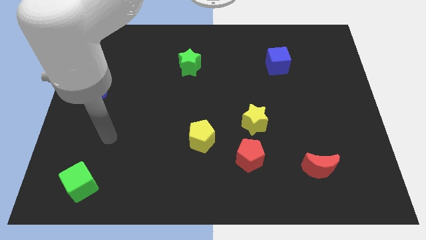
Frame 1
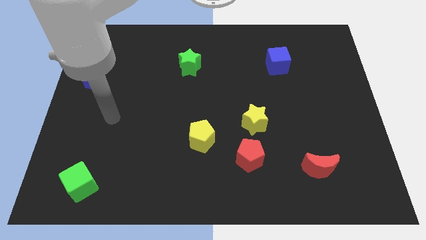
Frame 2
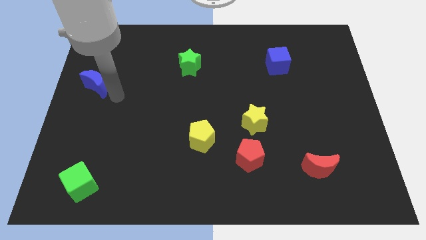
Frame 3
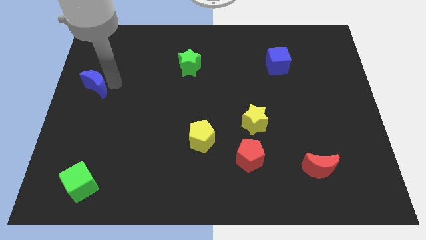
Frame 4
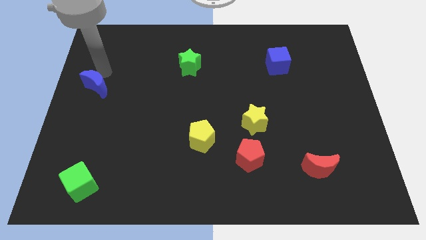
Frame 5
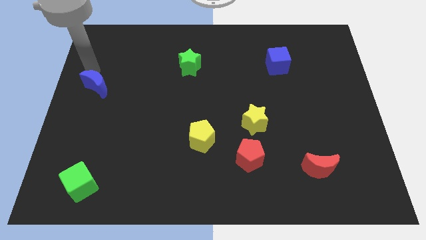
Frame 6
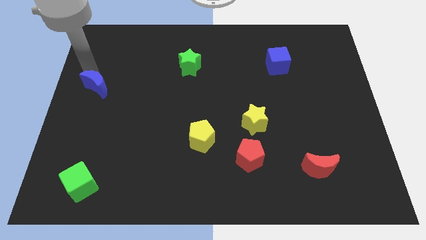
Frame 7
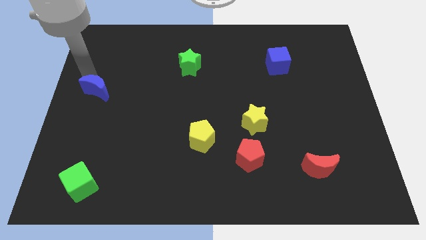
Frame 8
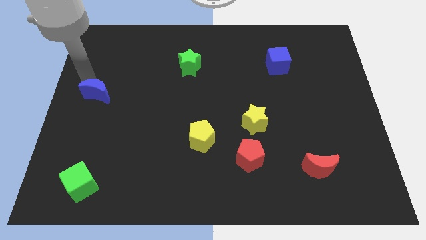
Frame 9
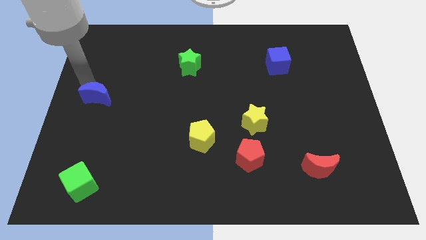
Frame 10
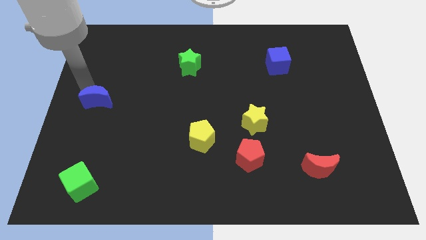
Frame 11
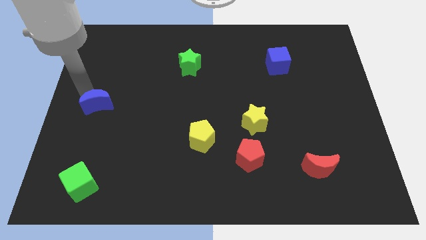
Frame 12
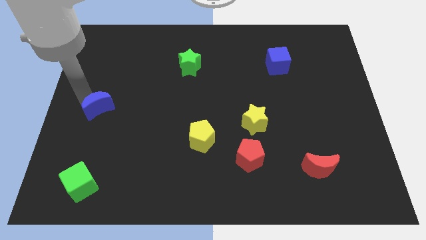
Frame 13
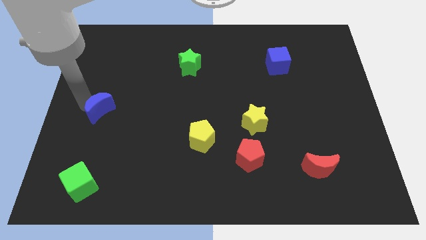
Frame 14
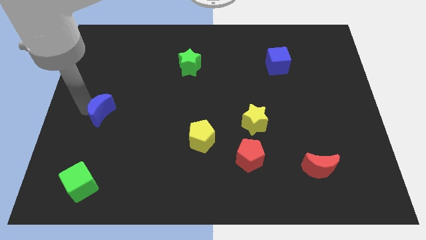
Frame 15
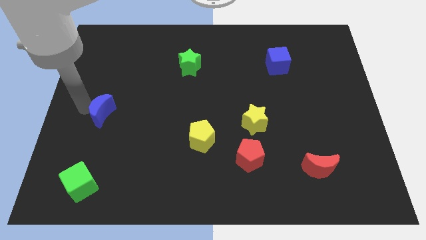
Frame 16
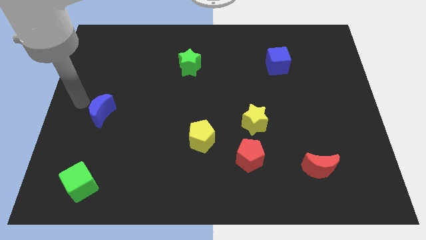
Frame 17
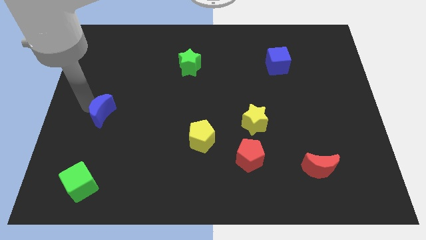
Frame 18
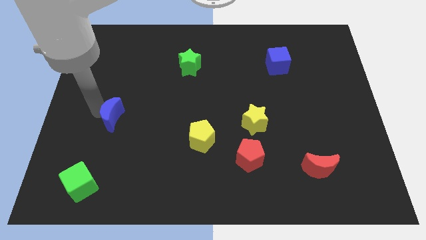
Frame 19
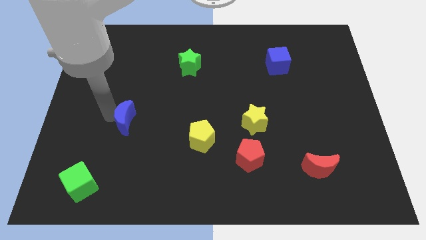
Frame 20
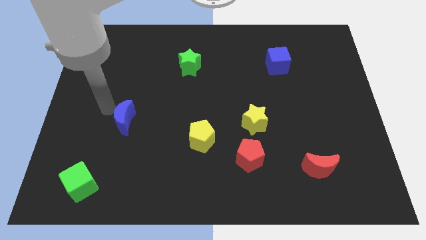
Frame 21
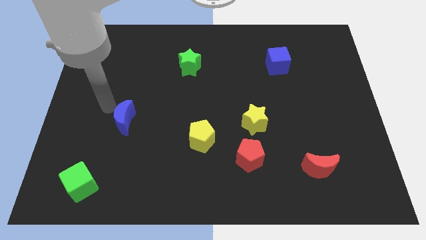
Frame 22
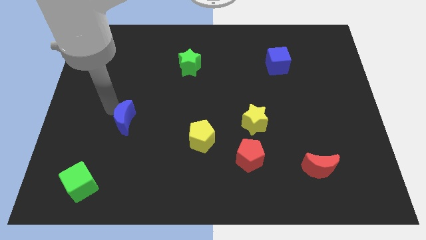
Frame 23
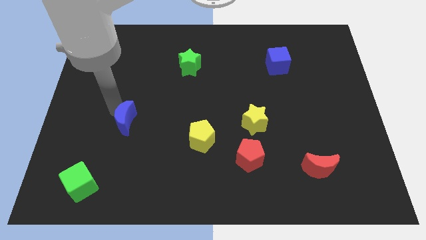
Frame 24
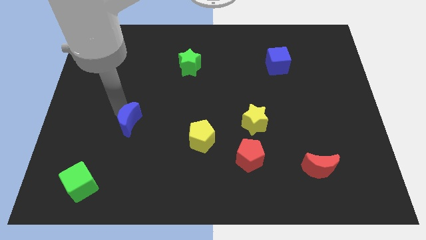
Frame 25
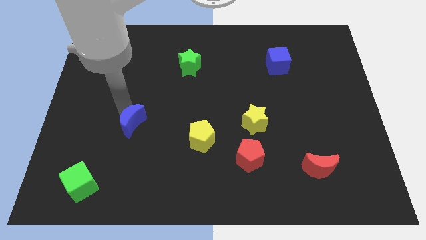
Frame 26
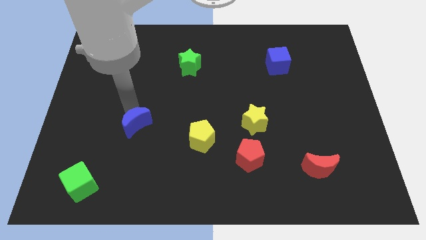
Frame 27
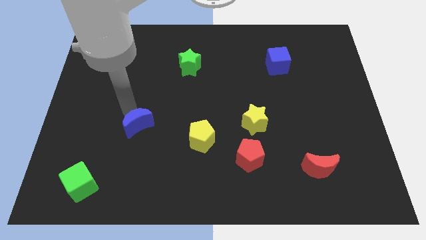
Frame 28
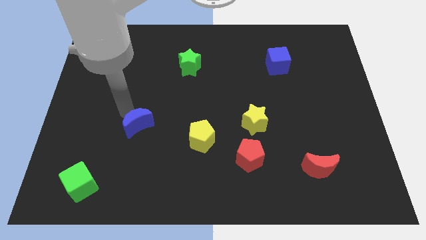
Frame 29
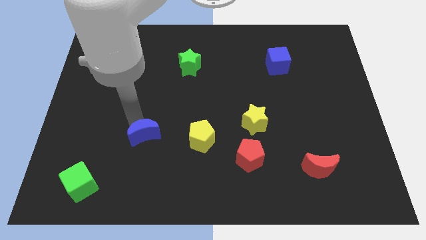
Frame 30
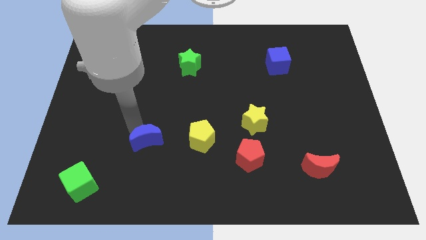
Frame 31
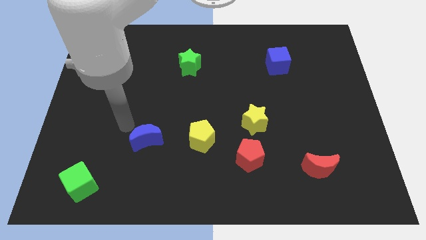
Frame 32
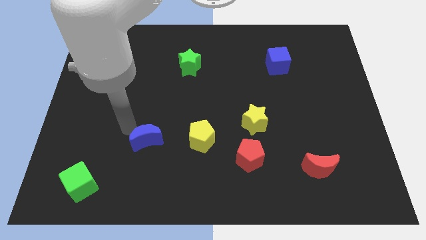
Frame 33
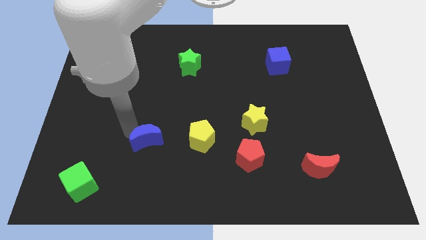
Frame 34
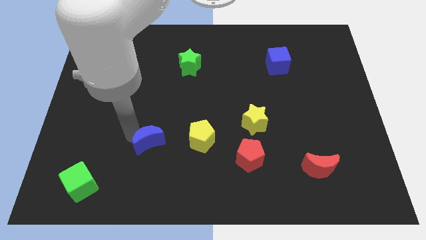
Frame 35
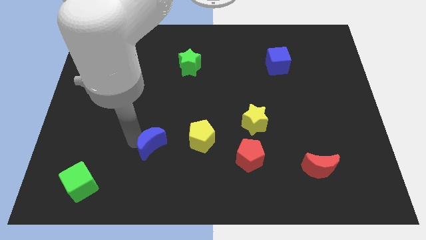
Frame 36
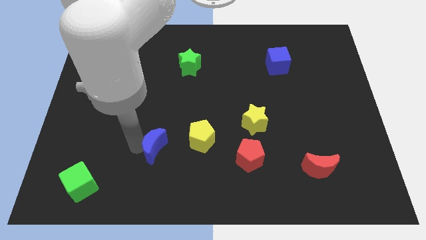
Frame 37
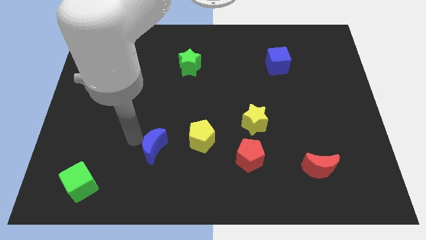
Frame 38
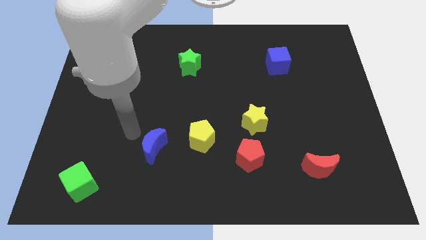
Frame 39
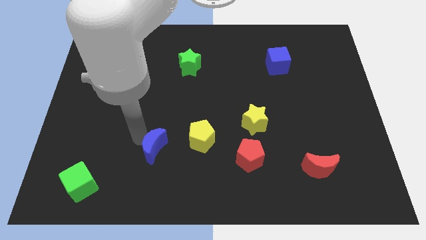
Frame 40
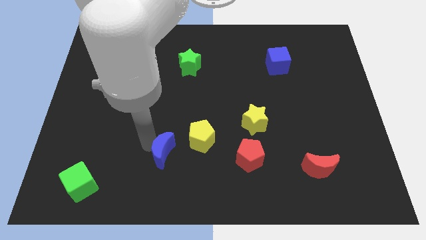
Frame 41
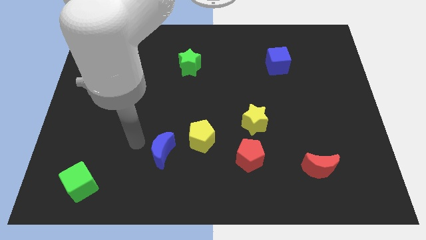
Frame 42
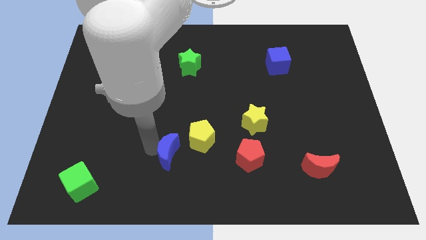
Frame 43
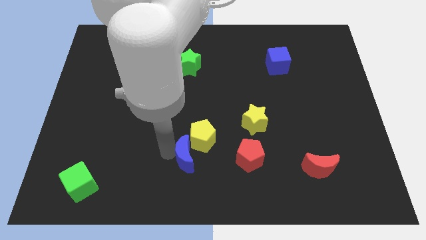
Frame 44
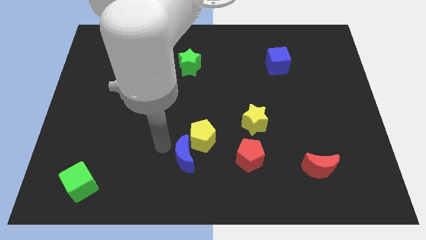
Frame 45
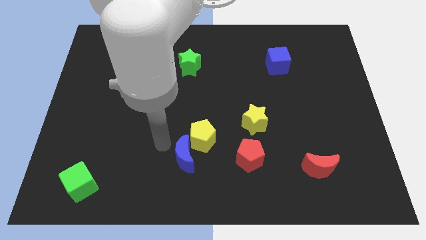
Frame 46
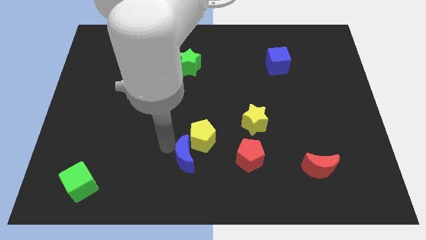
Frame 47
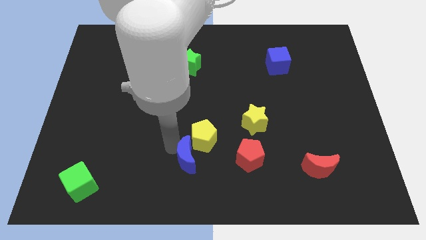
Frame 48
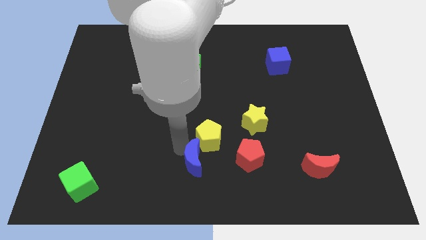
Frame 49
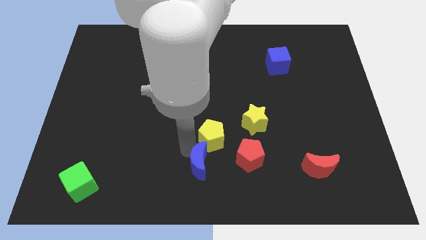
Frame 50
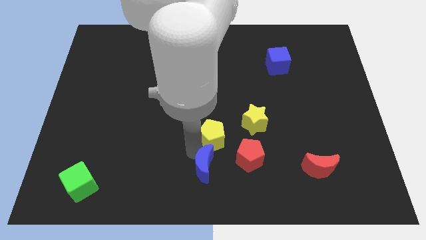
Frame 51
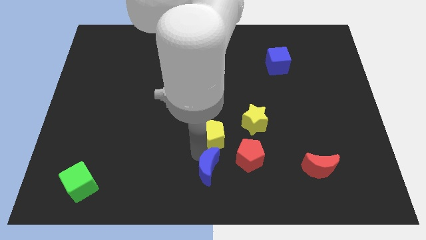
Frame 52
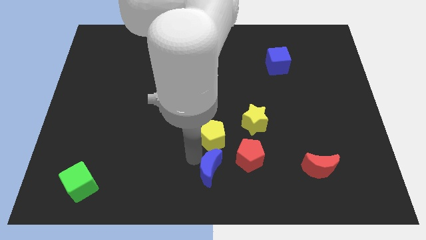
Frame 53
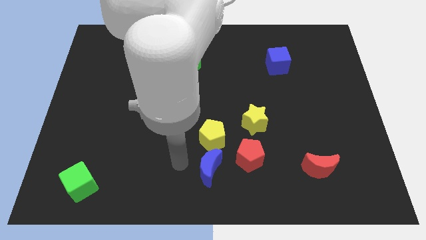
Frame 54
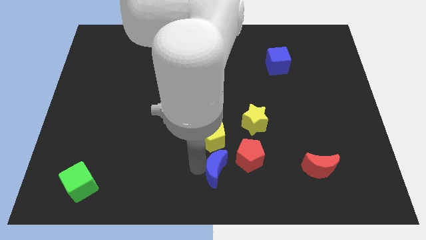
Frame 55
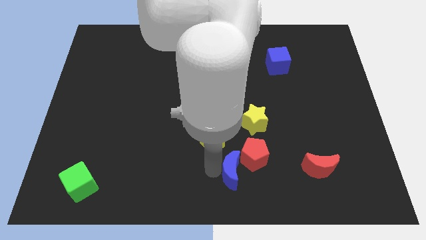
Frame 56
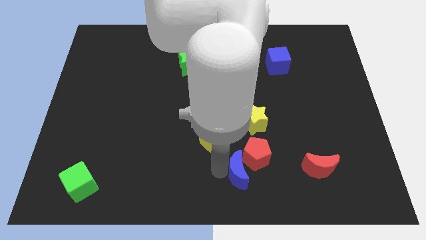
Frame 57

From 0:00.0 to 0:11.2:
push the blue moon to the bottom side of the yellow star

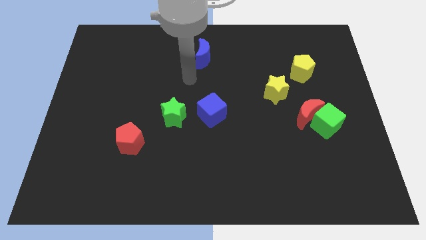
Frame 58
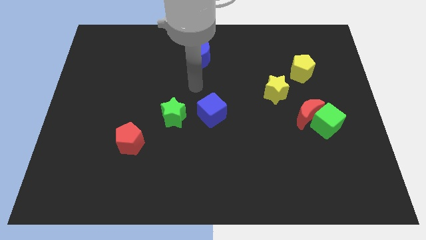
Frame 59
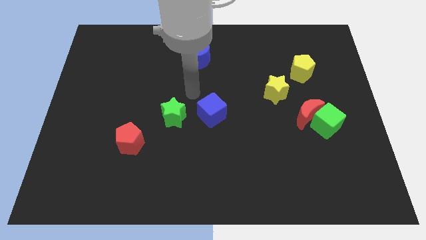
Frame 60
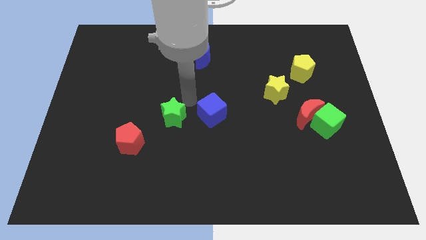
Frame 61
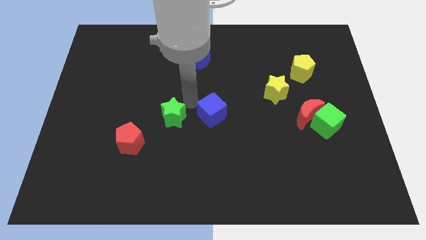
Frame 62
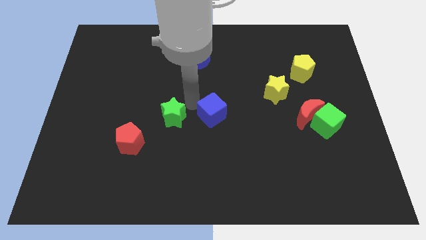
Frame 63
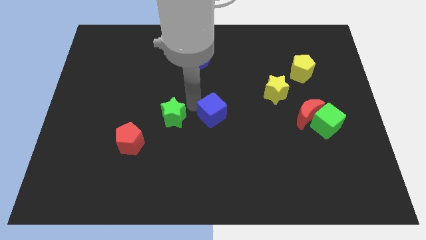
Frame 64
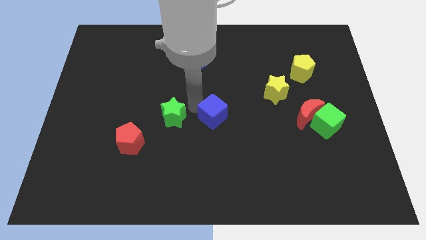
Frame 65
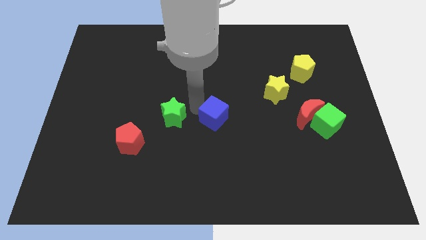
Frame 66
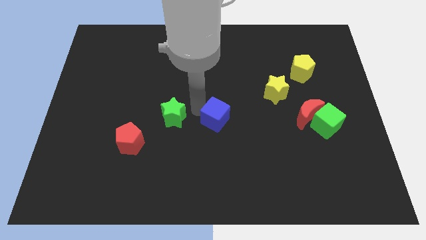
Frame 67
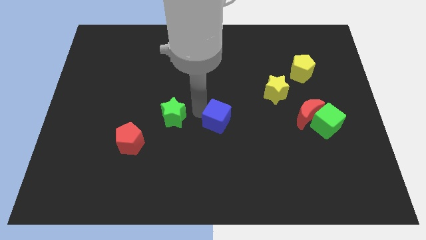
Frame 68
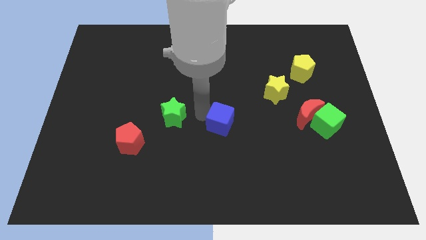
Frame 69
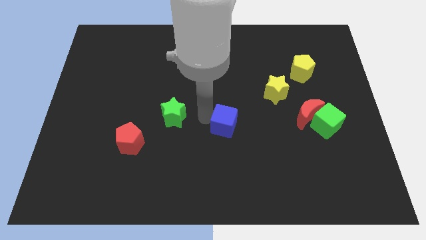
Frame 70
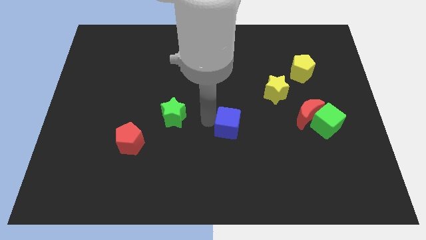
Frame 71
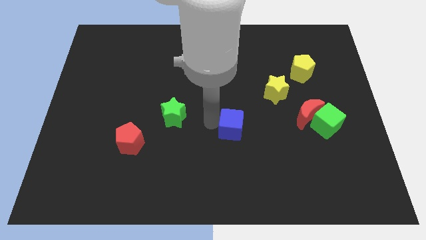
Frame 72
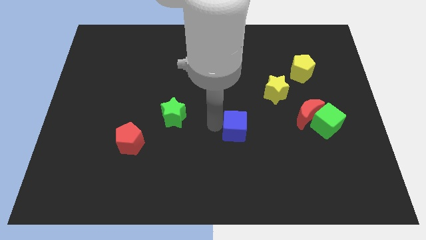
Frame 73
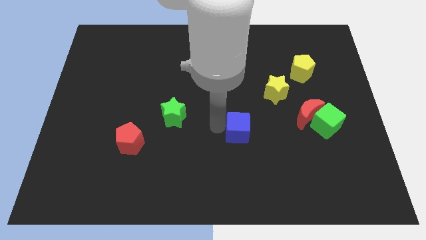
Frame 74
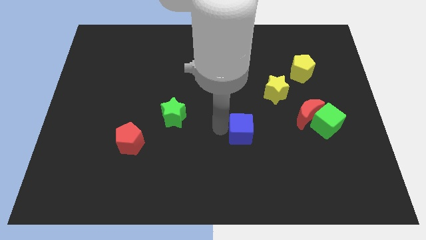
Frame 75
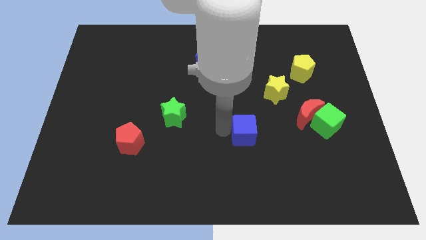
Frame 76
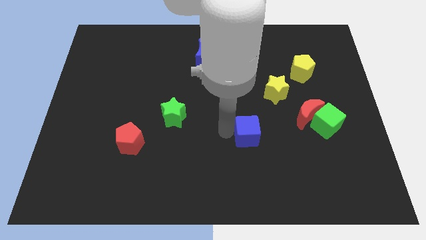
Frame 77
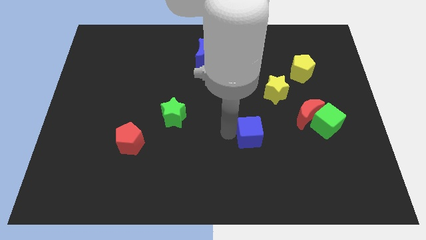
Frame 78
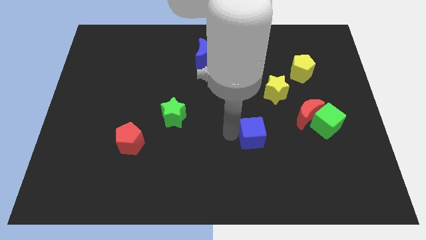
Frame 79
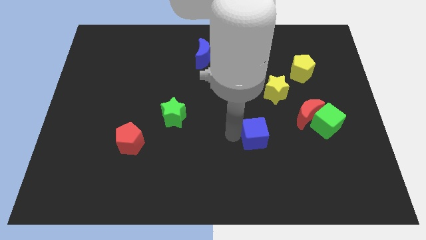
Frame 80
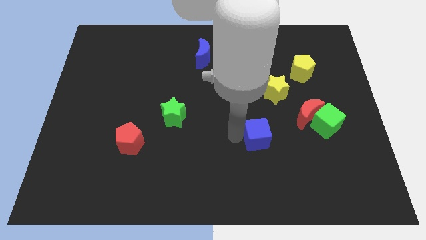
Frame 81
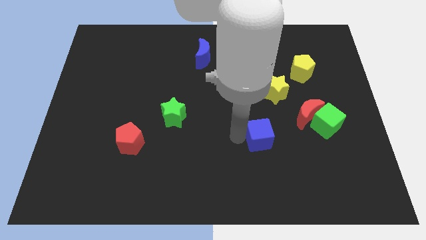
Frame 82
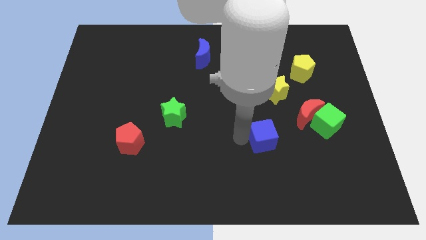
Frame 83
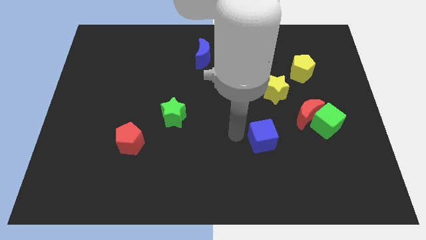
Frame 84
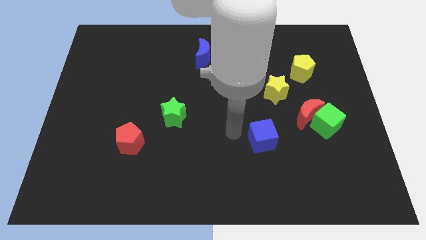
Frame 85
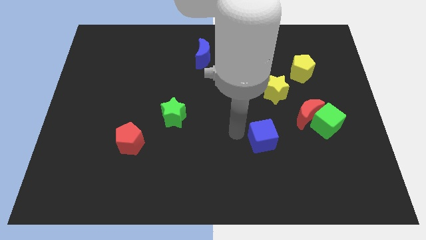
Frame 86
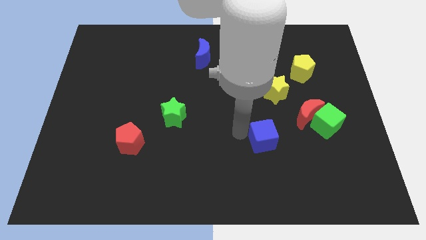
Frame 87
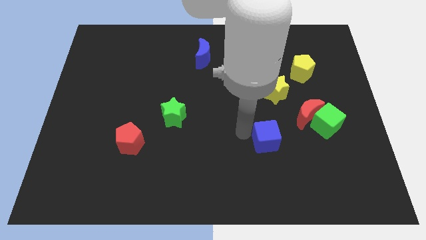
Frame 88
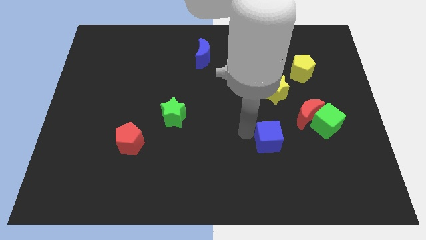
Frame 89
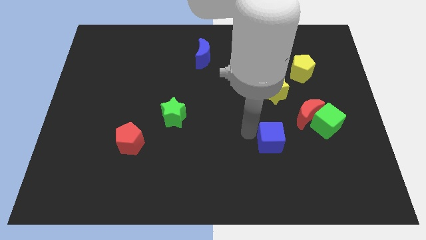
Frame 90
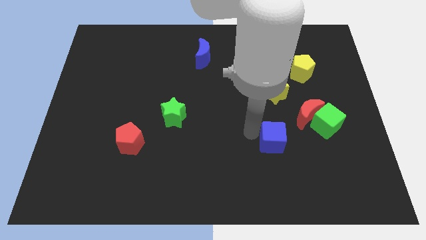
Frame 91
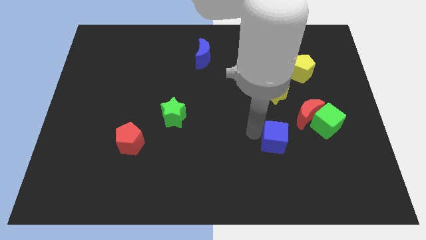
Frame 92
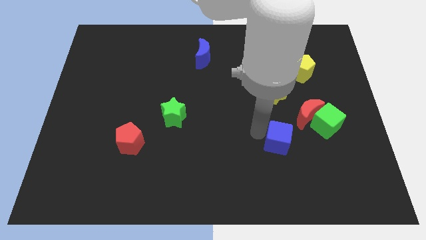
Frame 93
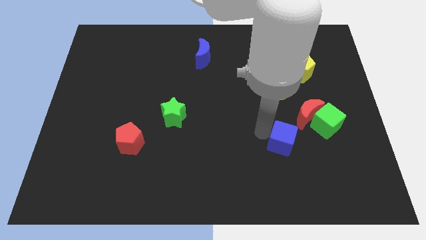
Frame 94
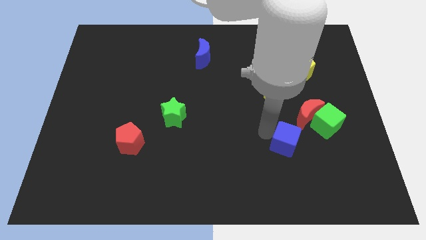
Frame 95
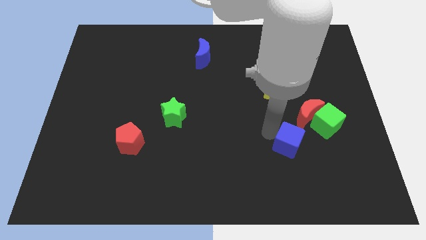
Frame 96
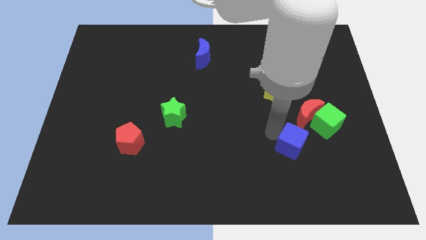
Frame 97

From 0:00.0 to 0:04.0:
push the blue cube below the red moon
